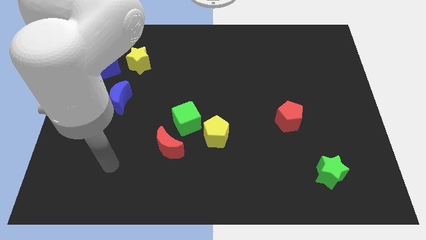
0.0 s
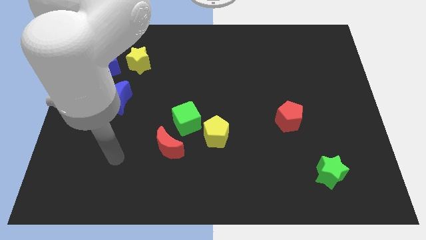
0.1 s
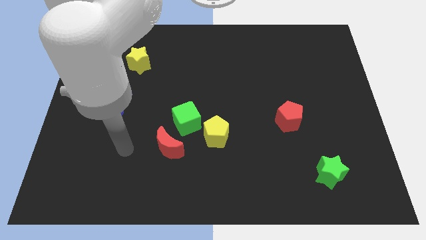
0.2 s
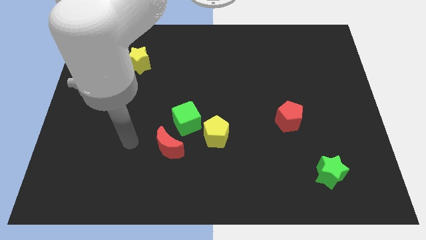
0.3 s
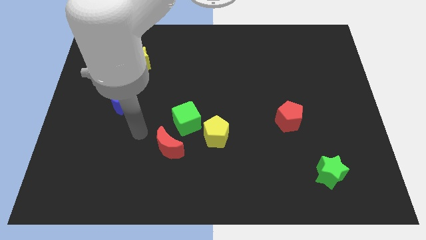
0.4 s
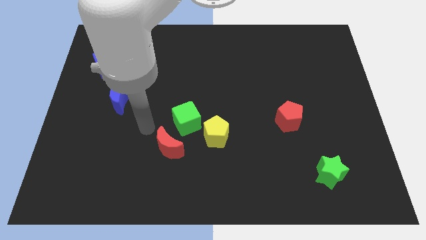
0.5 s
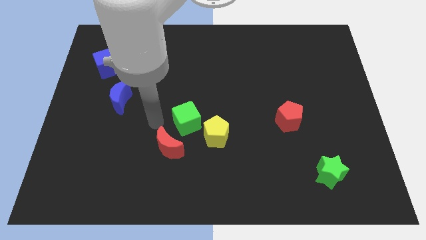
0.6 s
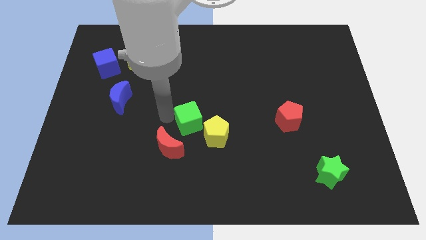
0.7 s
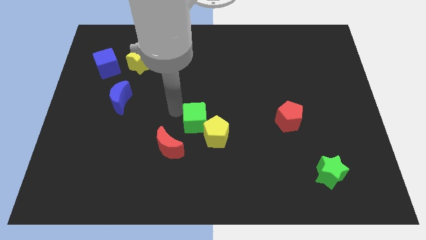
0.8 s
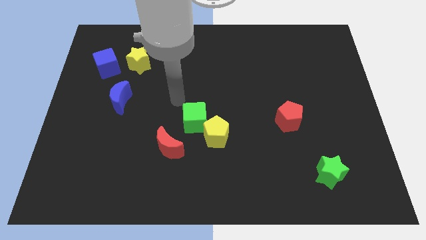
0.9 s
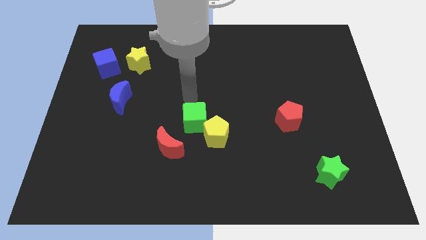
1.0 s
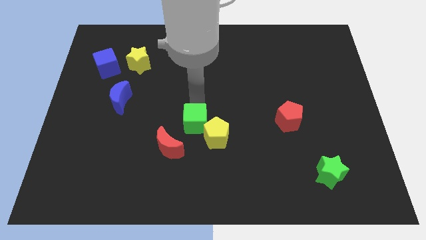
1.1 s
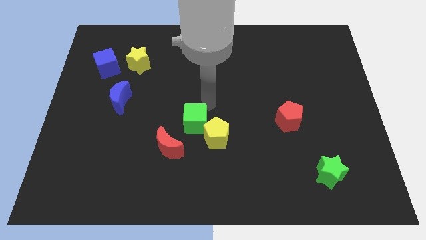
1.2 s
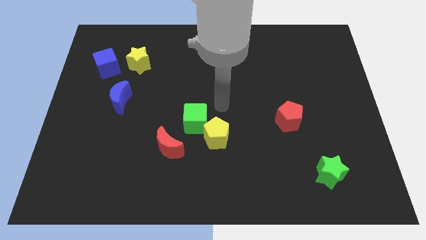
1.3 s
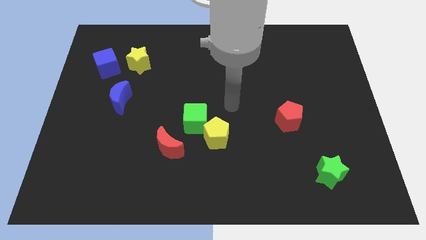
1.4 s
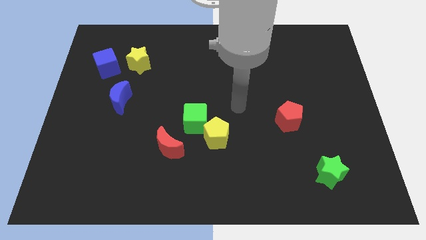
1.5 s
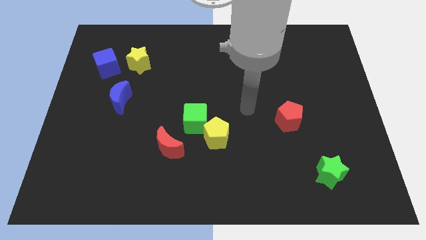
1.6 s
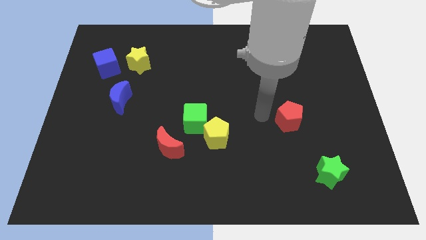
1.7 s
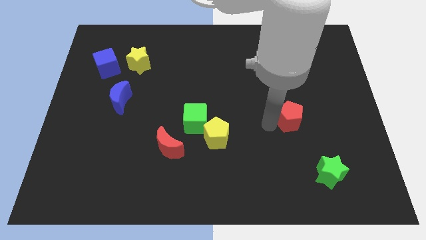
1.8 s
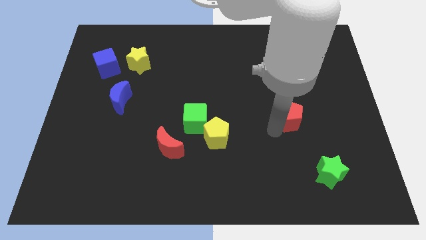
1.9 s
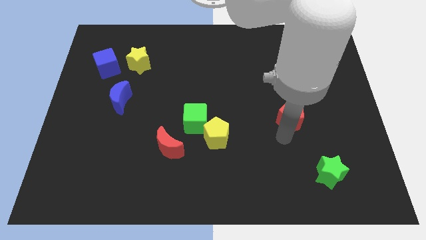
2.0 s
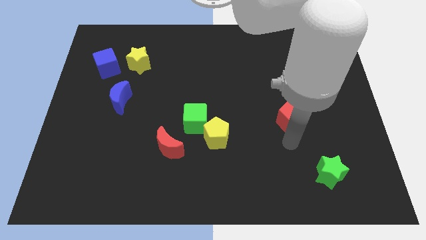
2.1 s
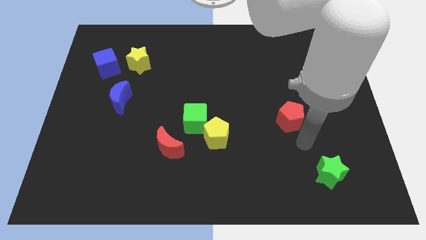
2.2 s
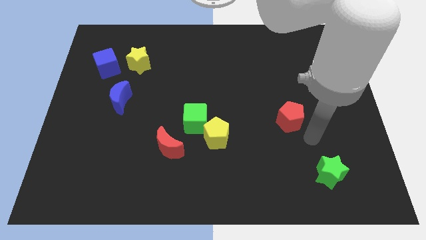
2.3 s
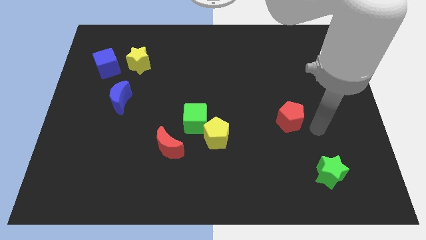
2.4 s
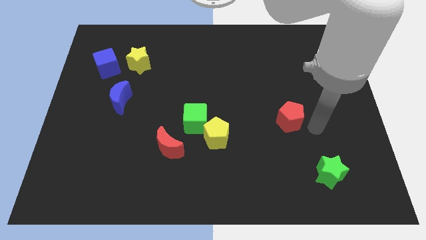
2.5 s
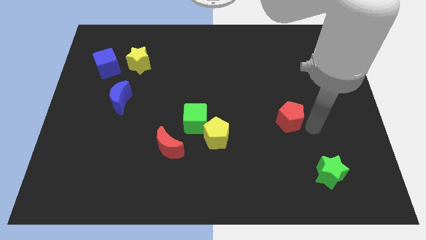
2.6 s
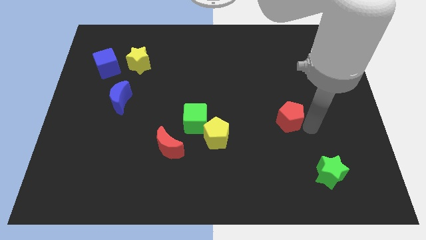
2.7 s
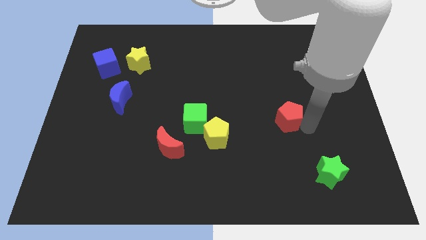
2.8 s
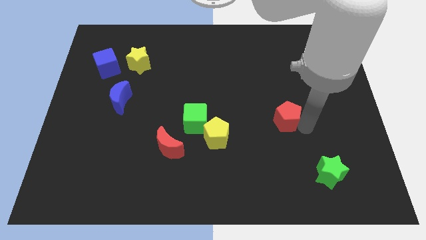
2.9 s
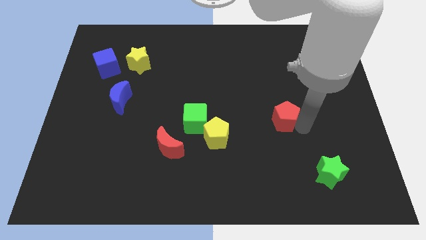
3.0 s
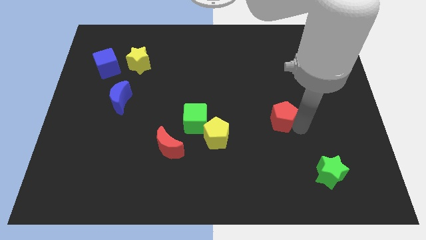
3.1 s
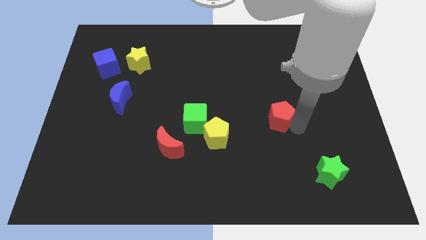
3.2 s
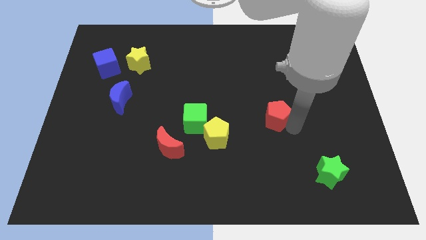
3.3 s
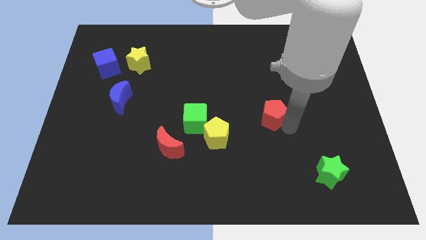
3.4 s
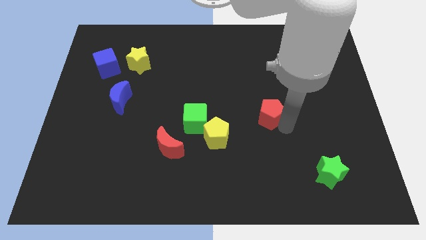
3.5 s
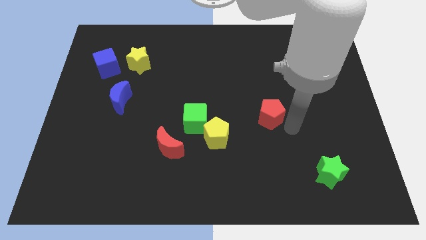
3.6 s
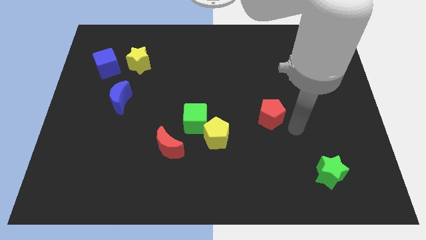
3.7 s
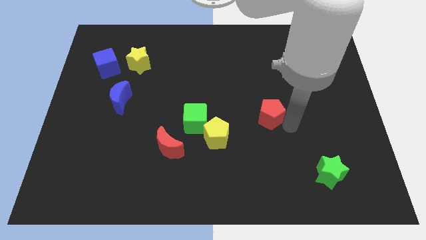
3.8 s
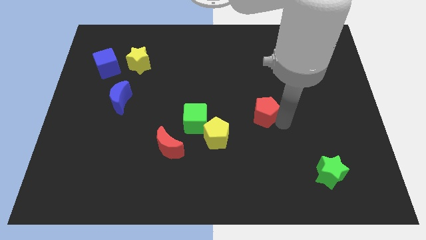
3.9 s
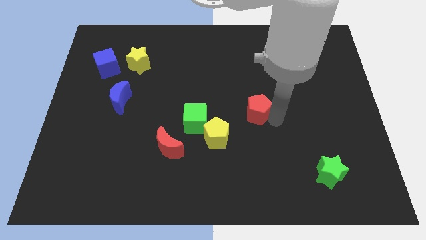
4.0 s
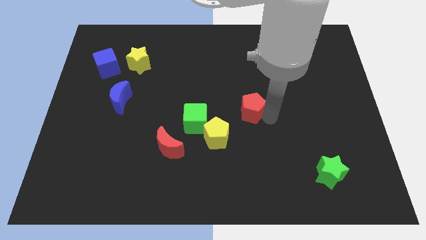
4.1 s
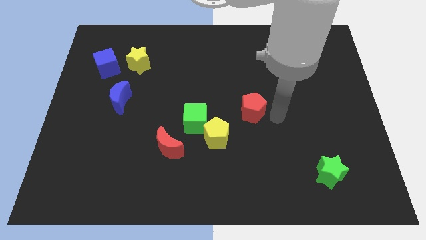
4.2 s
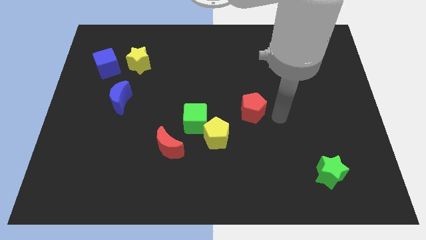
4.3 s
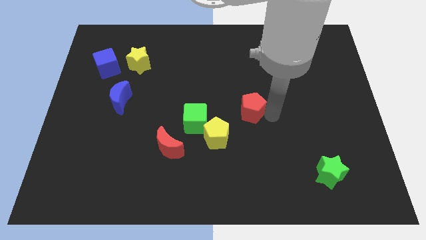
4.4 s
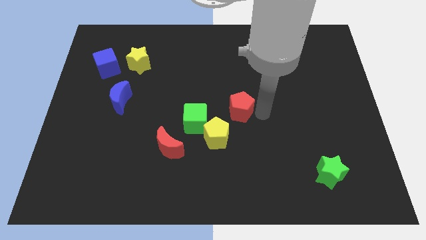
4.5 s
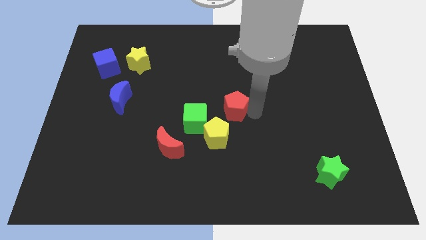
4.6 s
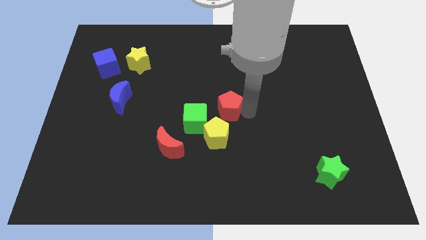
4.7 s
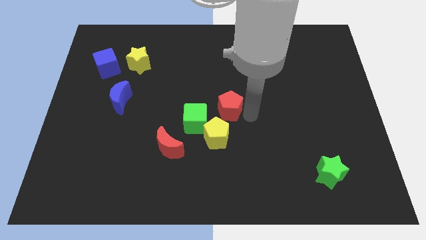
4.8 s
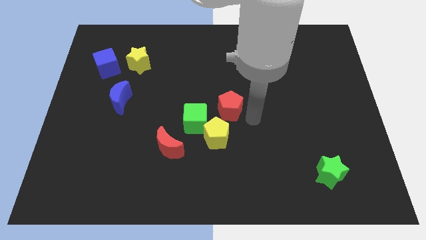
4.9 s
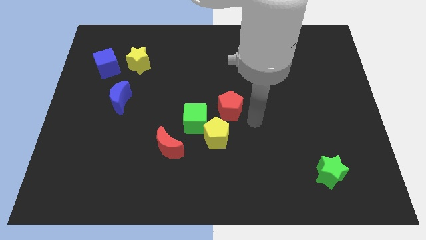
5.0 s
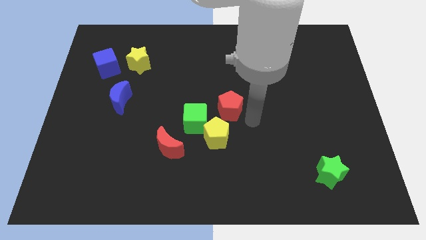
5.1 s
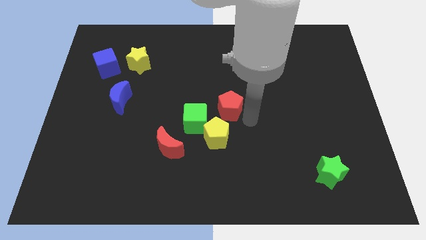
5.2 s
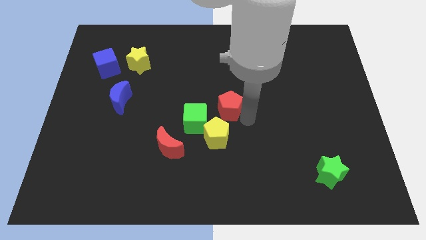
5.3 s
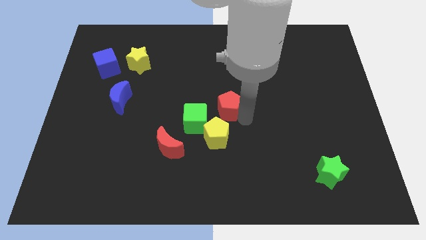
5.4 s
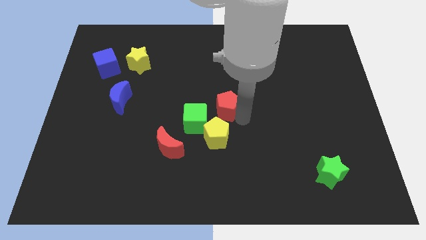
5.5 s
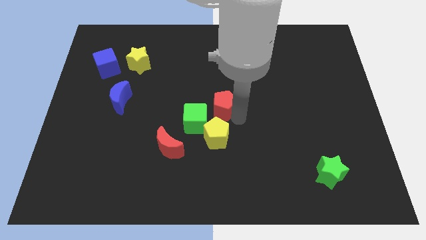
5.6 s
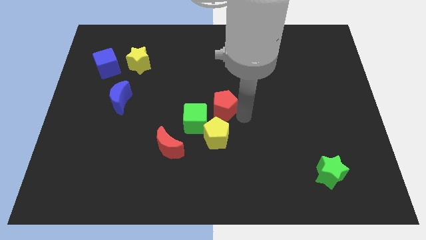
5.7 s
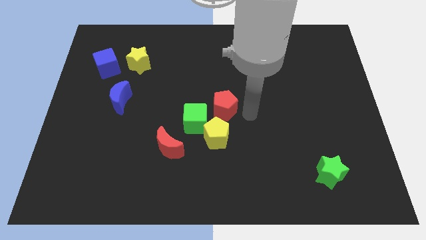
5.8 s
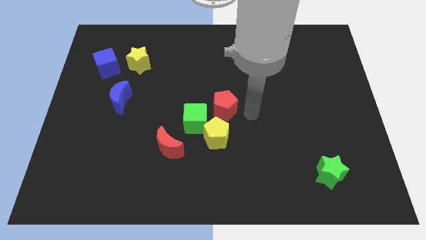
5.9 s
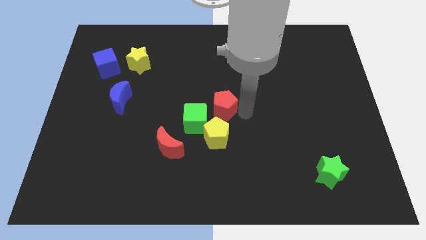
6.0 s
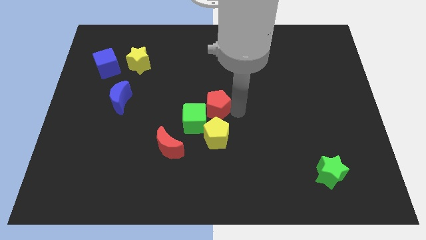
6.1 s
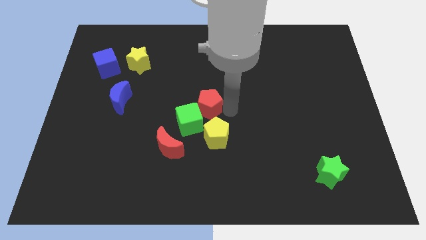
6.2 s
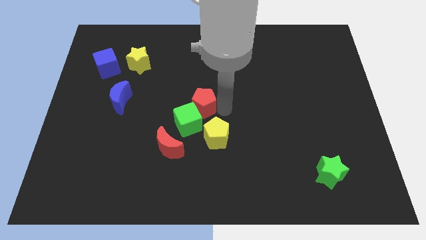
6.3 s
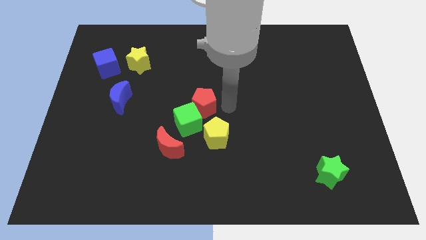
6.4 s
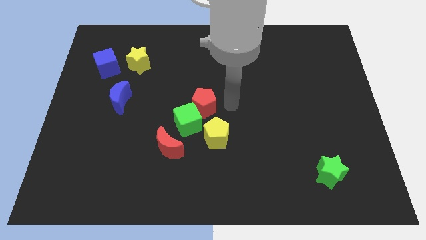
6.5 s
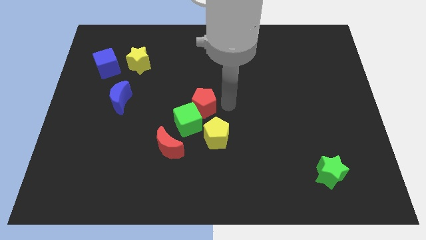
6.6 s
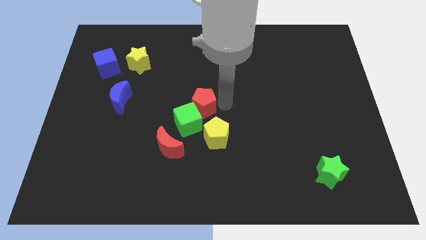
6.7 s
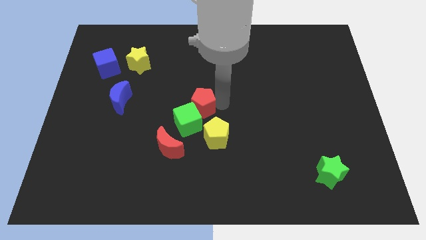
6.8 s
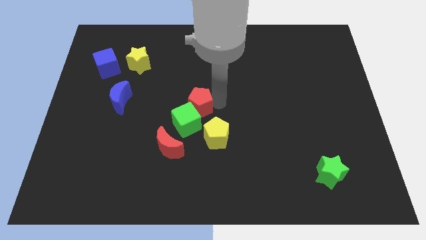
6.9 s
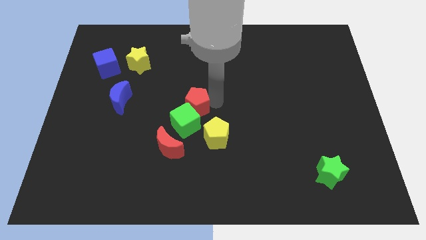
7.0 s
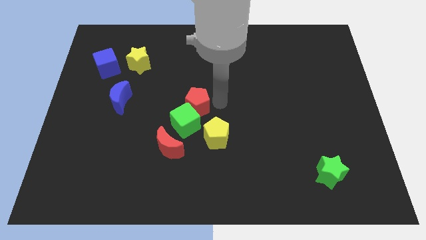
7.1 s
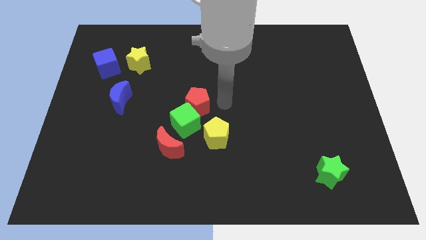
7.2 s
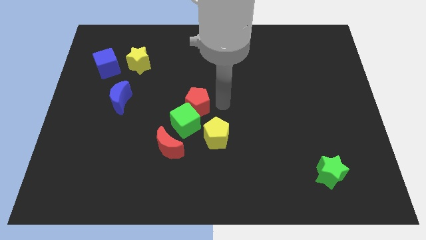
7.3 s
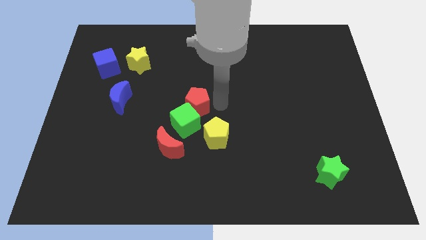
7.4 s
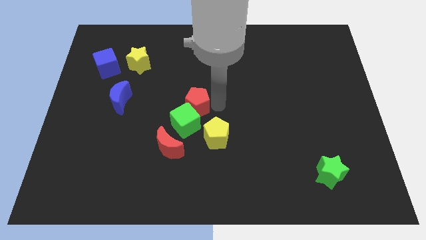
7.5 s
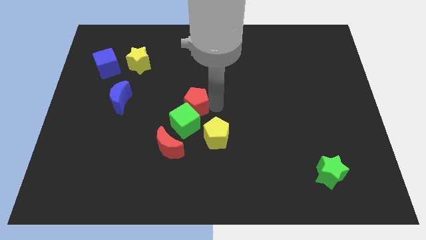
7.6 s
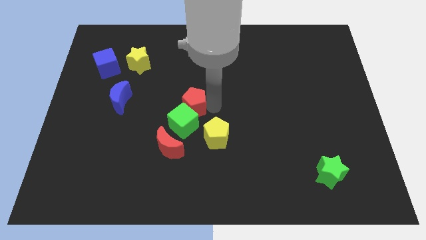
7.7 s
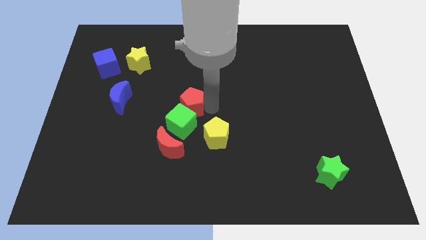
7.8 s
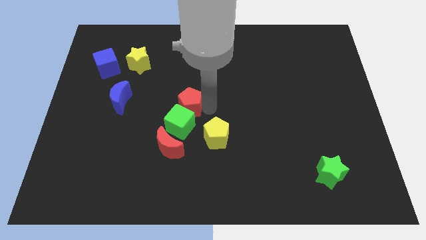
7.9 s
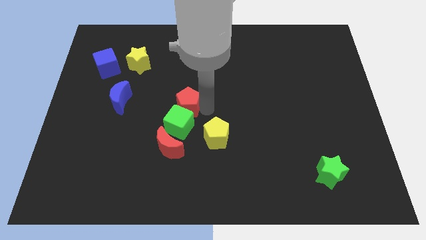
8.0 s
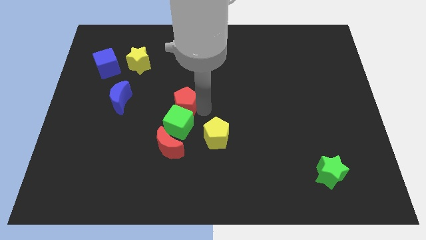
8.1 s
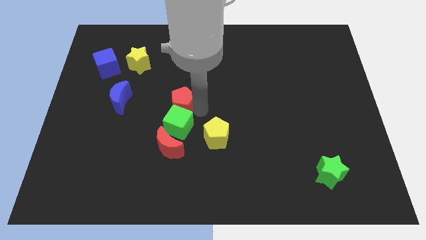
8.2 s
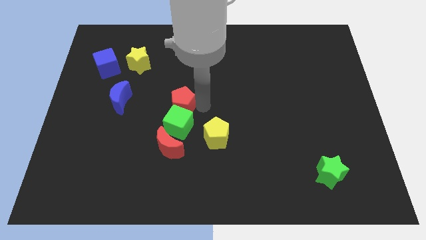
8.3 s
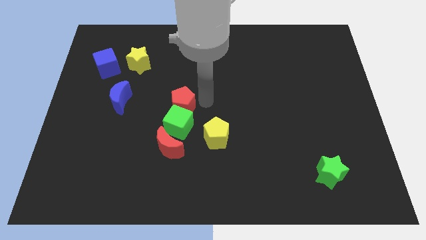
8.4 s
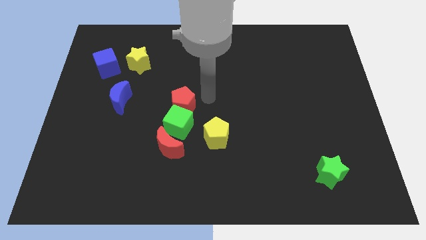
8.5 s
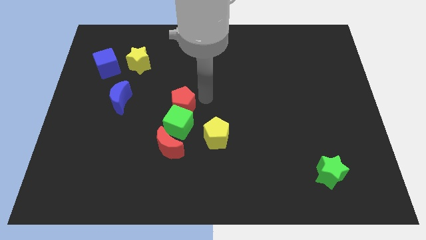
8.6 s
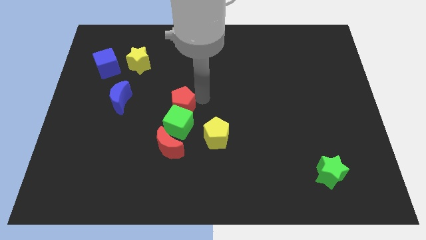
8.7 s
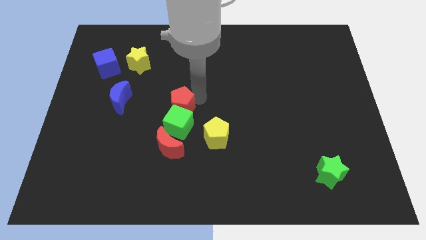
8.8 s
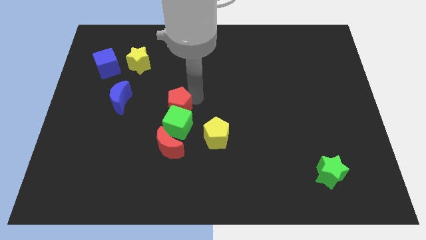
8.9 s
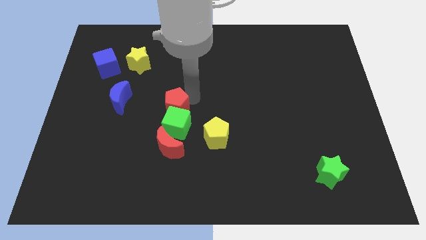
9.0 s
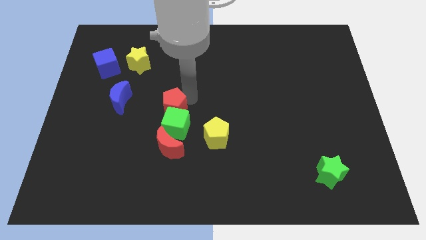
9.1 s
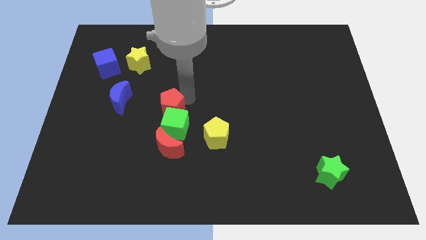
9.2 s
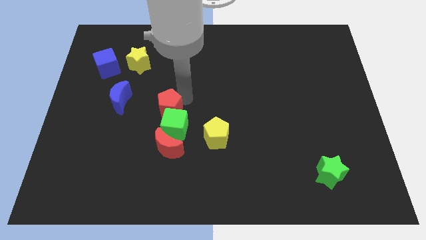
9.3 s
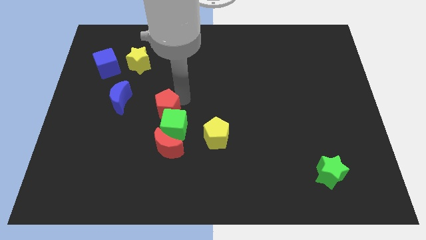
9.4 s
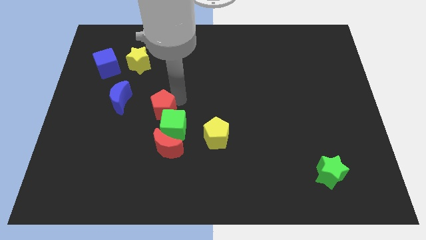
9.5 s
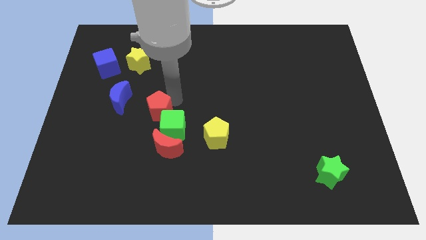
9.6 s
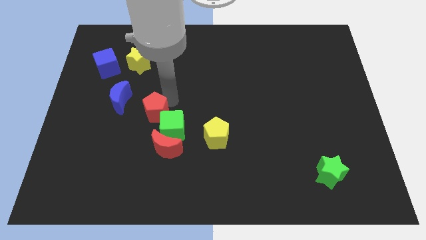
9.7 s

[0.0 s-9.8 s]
push the red pentagon left of the green cube
